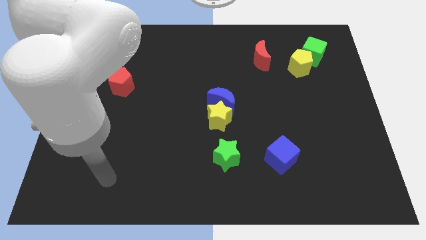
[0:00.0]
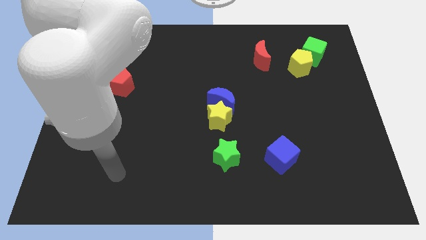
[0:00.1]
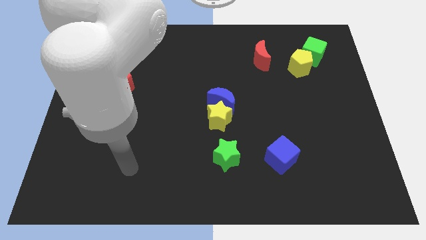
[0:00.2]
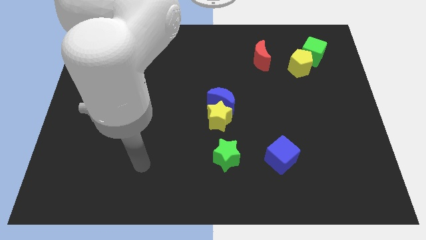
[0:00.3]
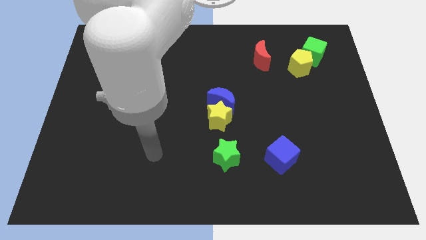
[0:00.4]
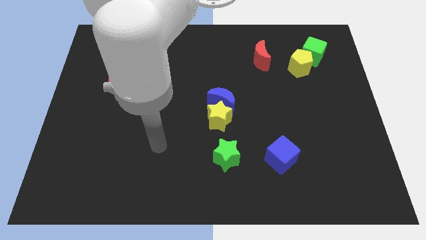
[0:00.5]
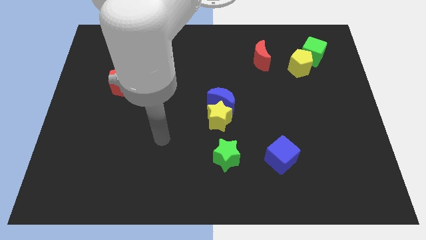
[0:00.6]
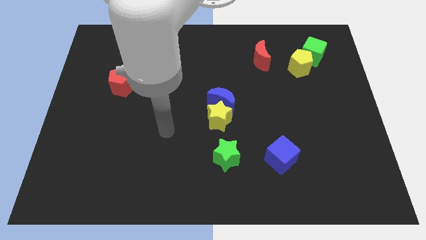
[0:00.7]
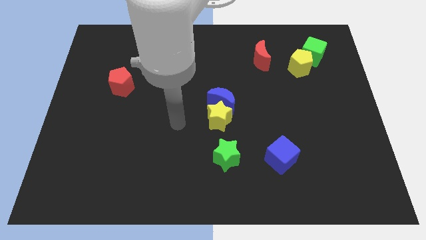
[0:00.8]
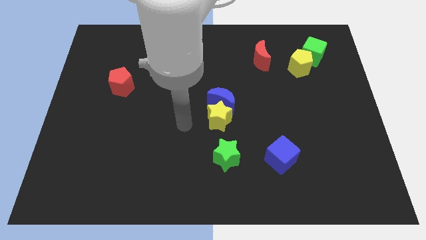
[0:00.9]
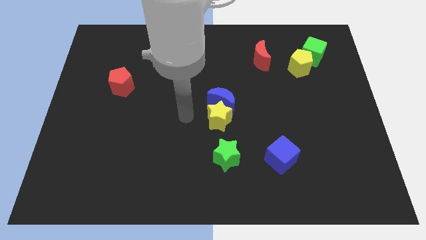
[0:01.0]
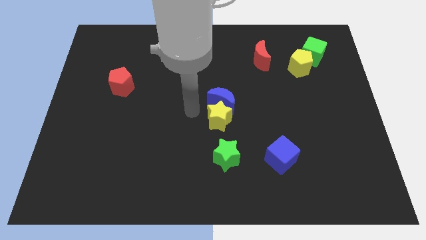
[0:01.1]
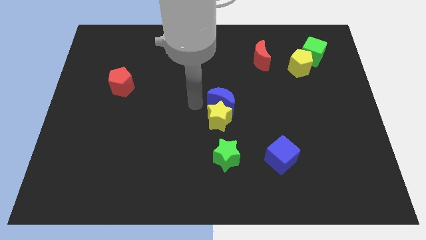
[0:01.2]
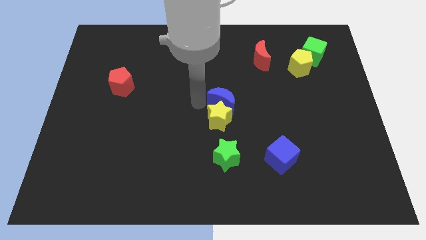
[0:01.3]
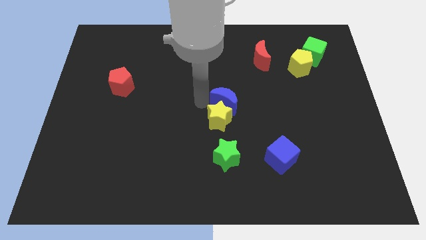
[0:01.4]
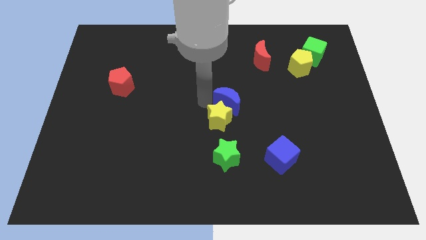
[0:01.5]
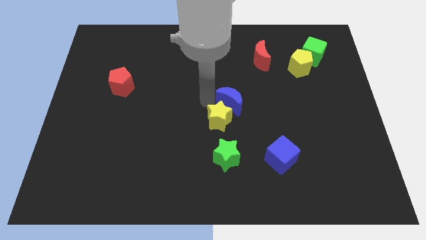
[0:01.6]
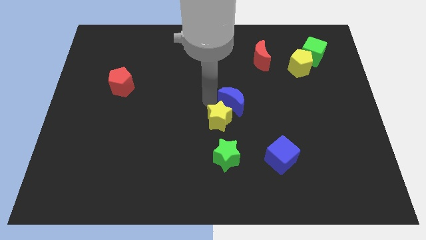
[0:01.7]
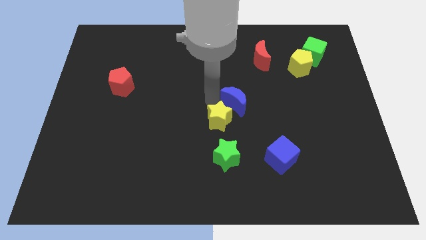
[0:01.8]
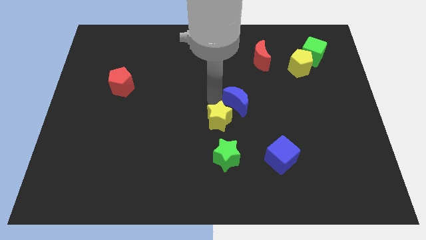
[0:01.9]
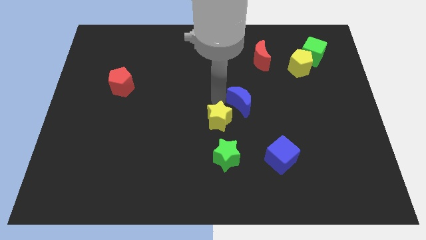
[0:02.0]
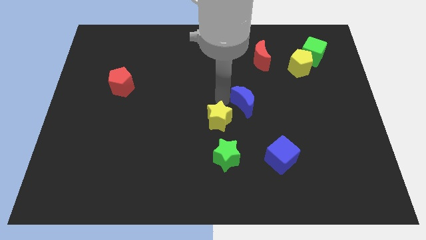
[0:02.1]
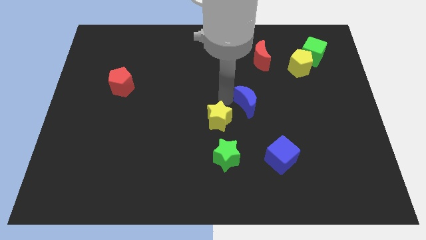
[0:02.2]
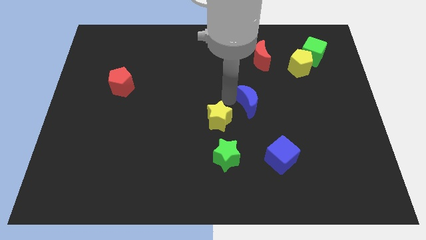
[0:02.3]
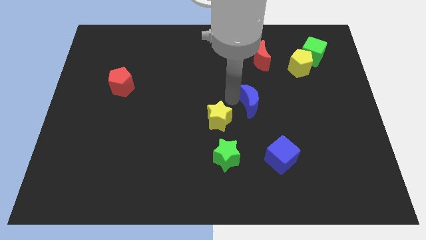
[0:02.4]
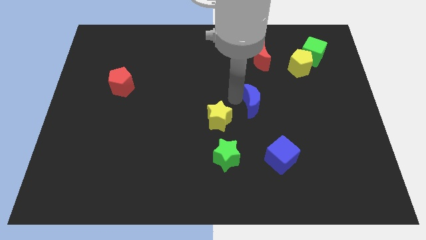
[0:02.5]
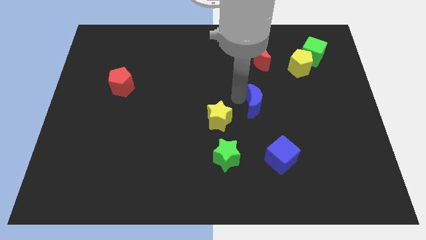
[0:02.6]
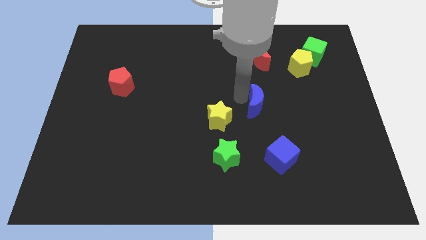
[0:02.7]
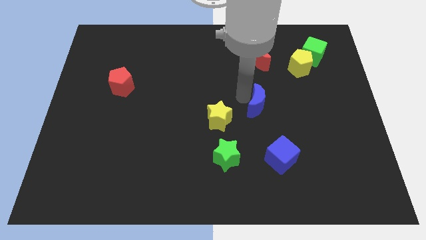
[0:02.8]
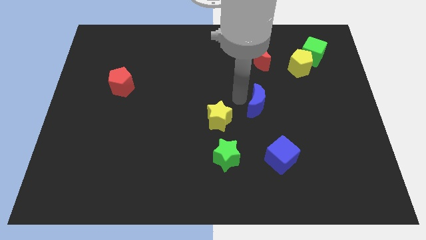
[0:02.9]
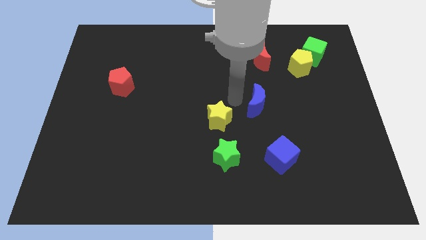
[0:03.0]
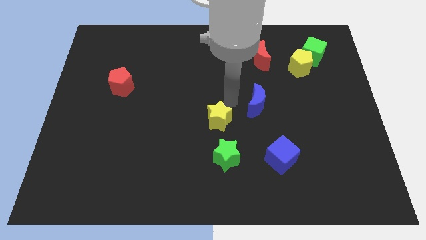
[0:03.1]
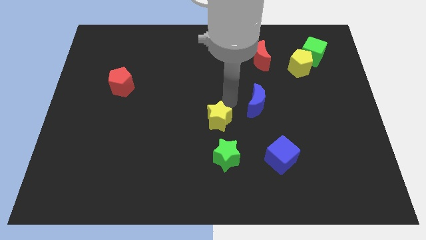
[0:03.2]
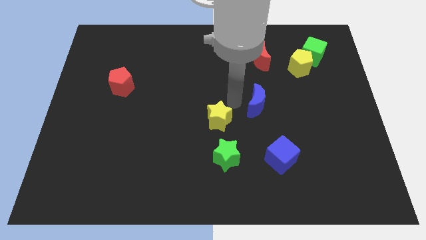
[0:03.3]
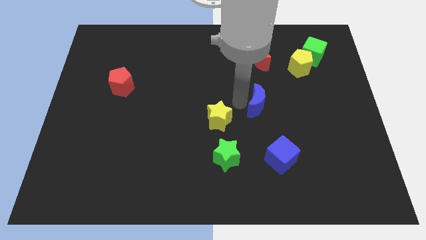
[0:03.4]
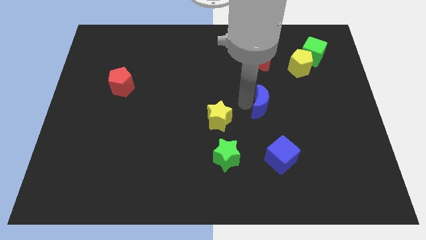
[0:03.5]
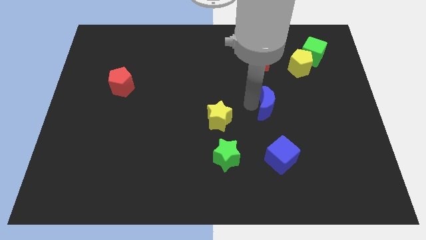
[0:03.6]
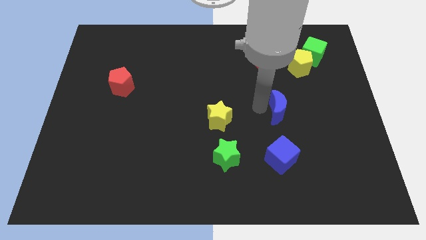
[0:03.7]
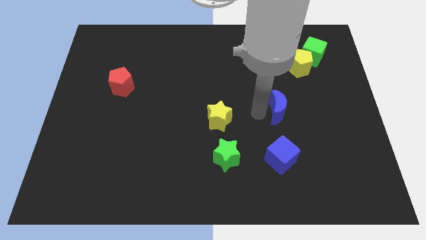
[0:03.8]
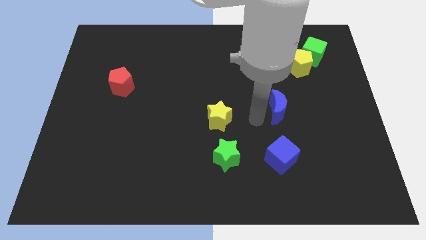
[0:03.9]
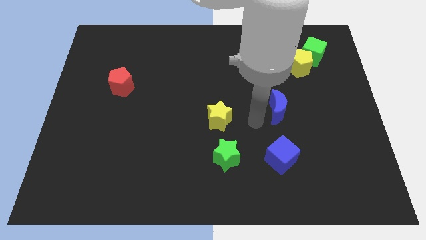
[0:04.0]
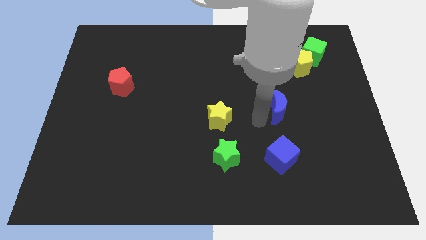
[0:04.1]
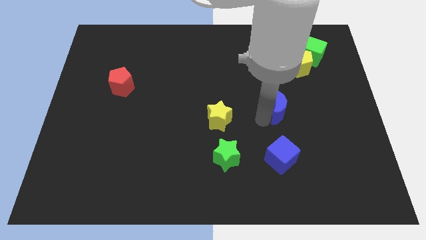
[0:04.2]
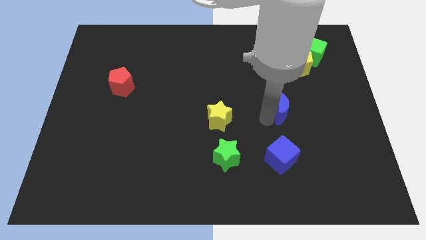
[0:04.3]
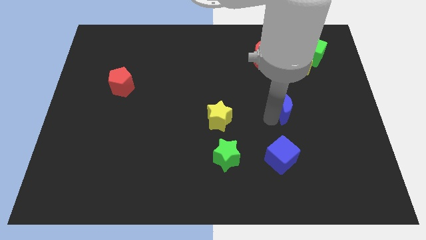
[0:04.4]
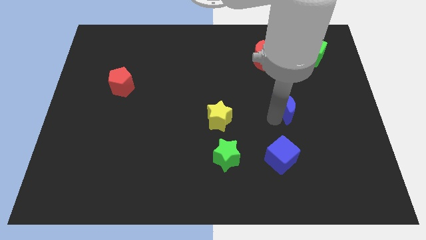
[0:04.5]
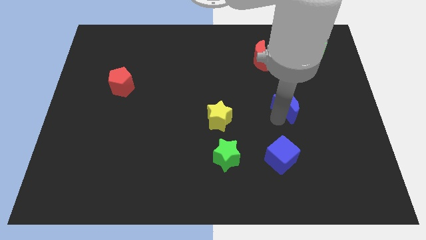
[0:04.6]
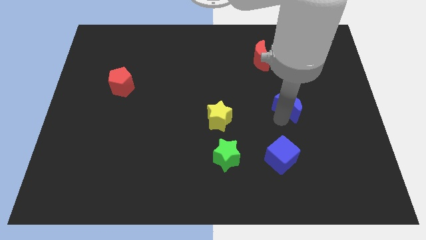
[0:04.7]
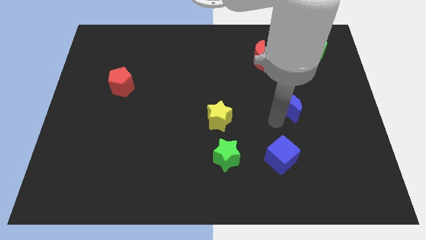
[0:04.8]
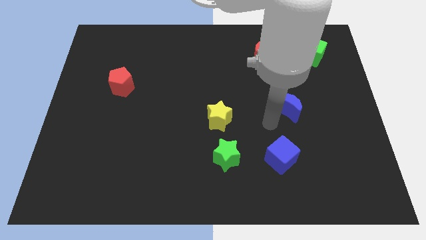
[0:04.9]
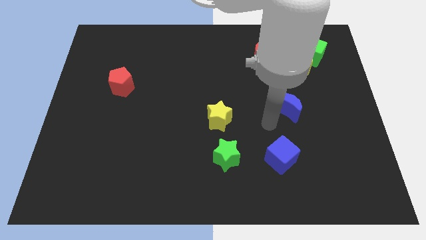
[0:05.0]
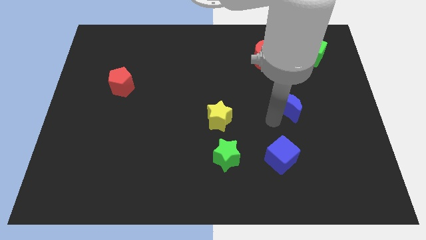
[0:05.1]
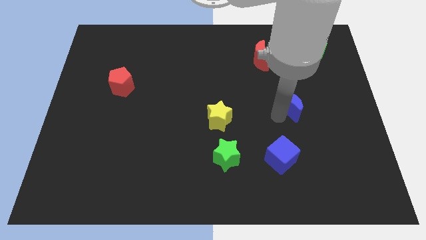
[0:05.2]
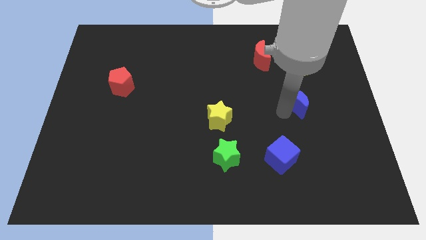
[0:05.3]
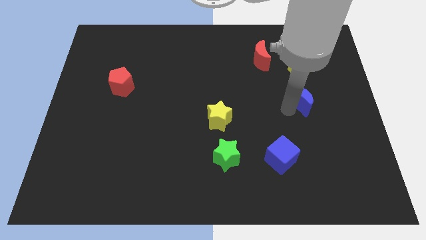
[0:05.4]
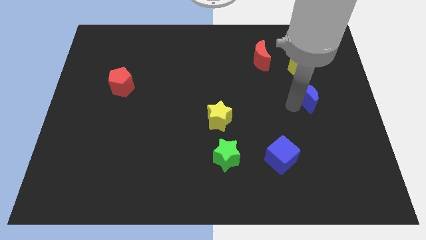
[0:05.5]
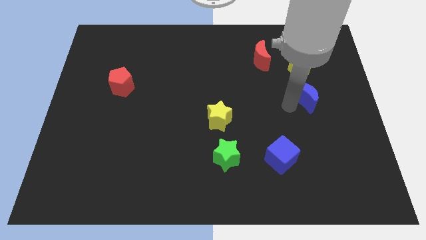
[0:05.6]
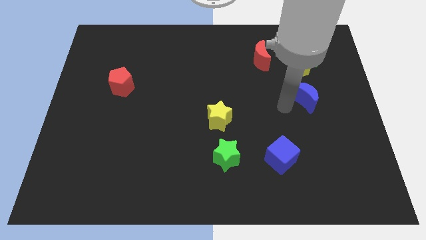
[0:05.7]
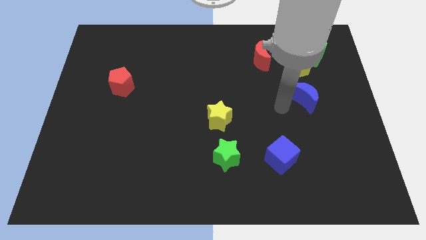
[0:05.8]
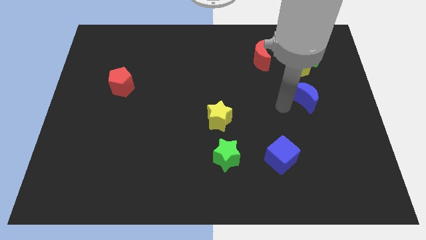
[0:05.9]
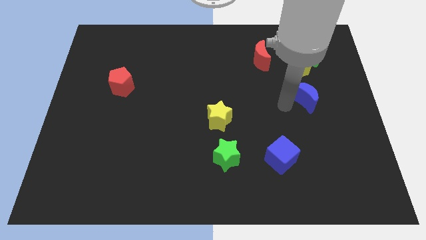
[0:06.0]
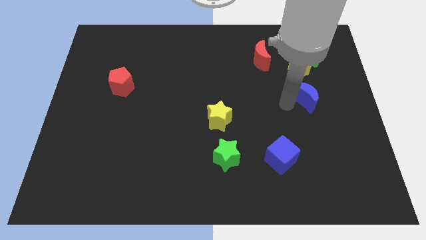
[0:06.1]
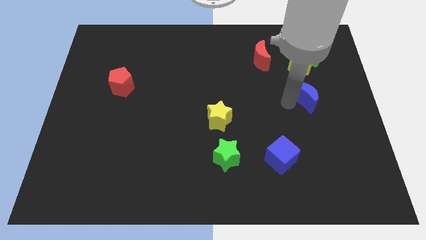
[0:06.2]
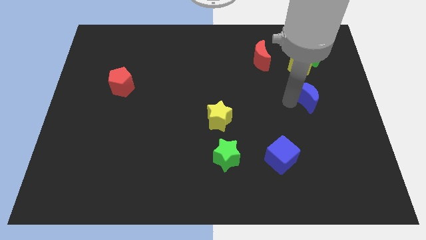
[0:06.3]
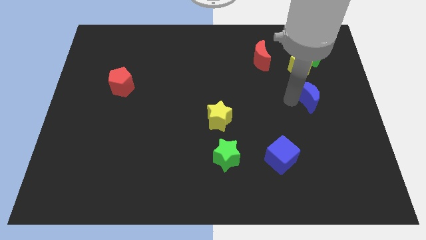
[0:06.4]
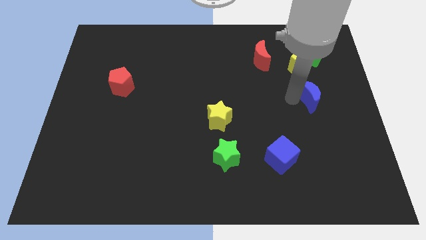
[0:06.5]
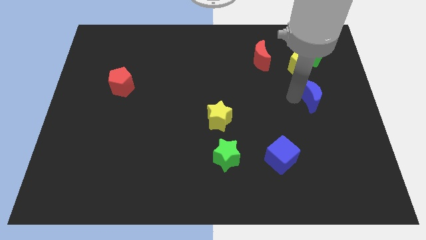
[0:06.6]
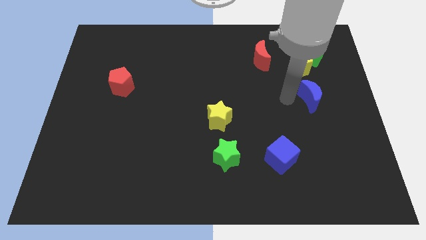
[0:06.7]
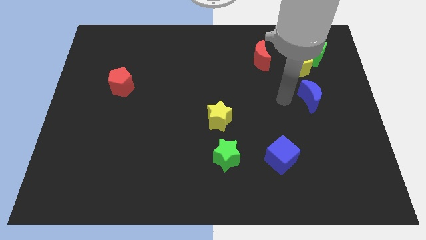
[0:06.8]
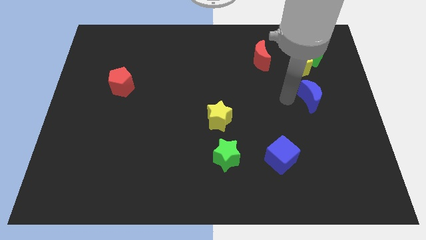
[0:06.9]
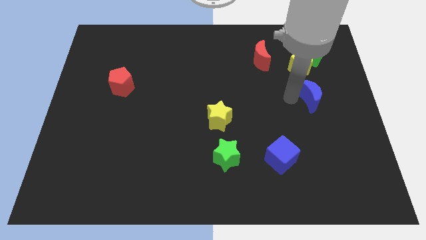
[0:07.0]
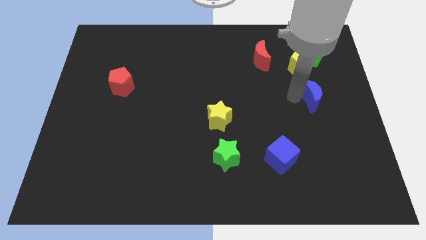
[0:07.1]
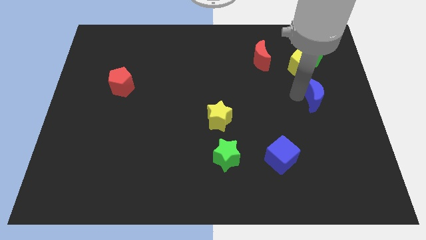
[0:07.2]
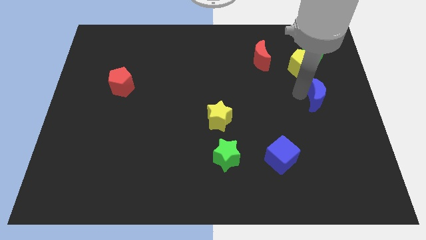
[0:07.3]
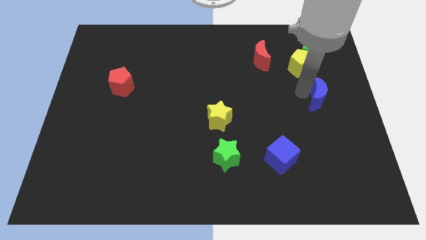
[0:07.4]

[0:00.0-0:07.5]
put the blue moon to the center right

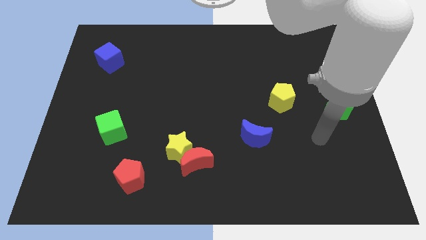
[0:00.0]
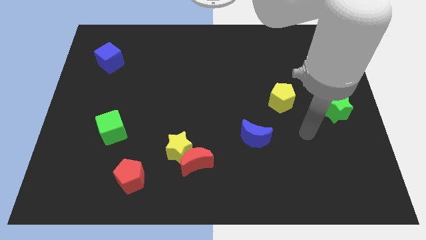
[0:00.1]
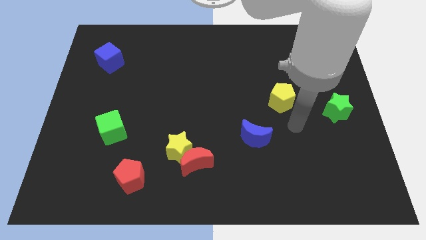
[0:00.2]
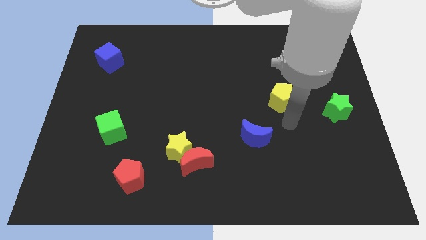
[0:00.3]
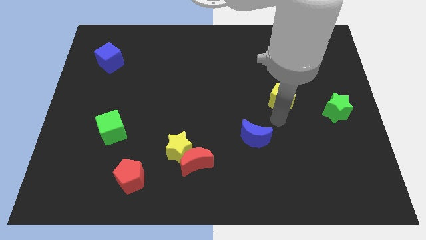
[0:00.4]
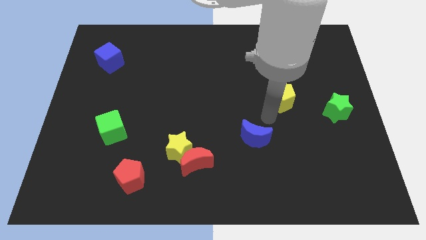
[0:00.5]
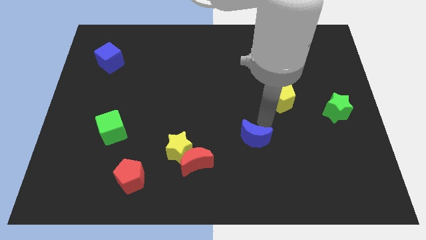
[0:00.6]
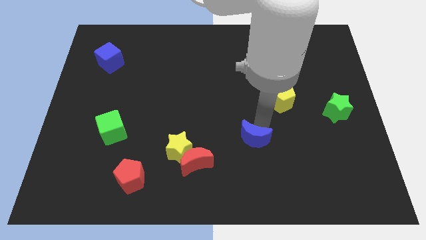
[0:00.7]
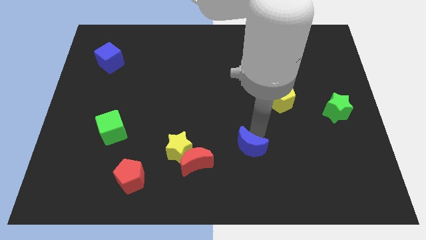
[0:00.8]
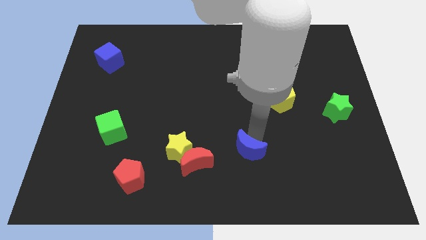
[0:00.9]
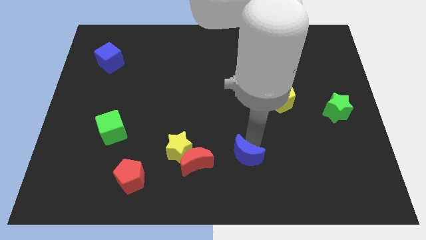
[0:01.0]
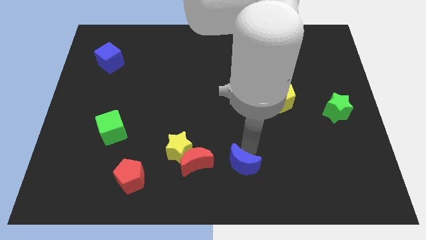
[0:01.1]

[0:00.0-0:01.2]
push the blue moon to the bottom
